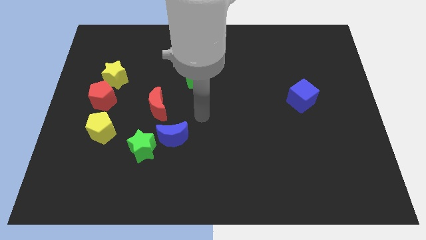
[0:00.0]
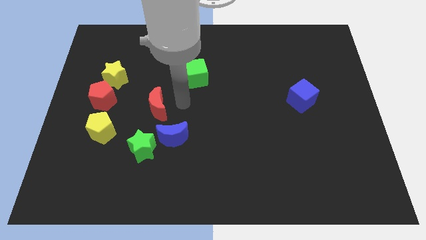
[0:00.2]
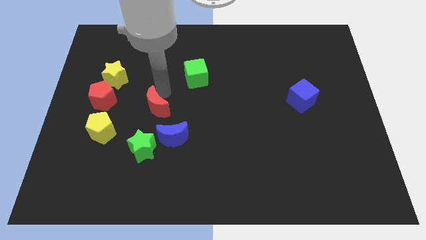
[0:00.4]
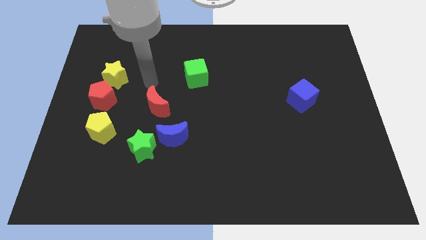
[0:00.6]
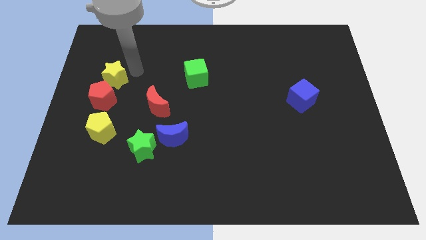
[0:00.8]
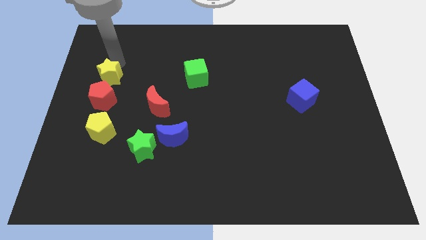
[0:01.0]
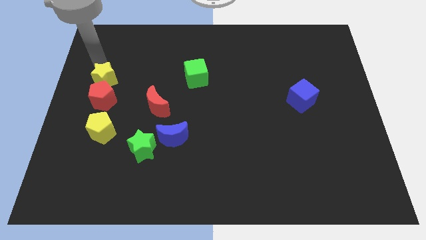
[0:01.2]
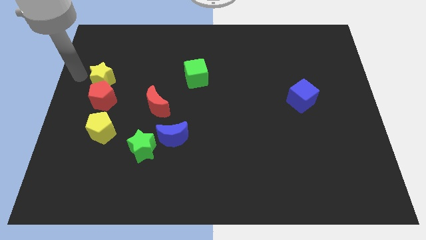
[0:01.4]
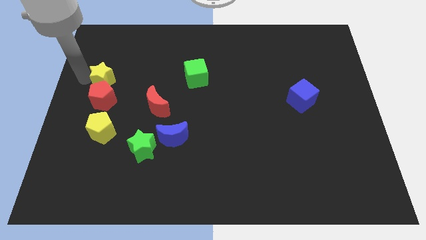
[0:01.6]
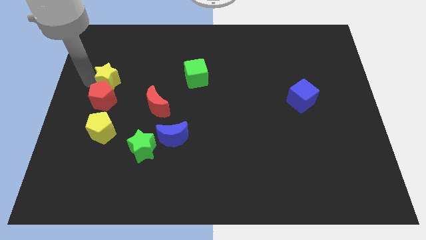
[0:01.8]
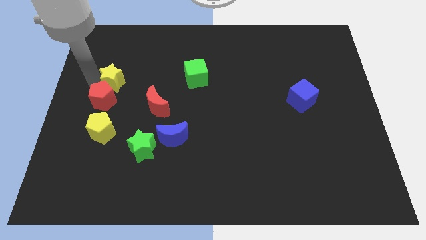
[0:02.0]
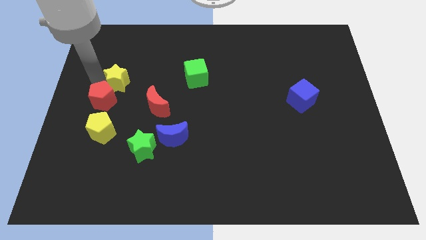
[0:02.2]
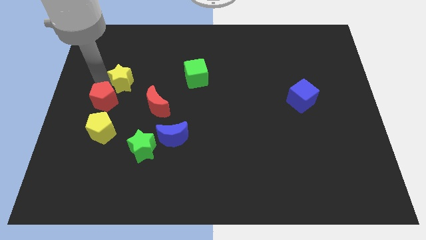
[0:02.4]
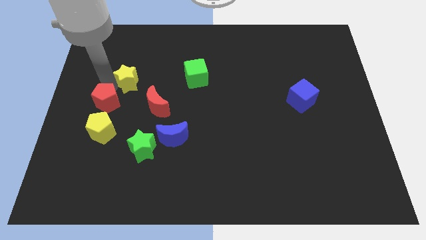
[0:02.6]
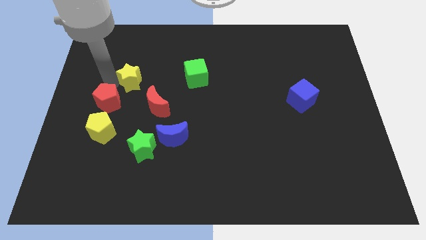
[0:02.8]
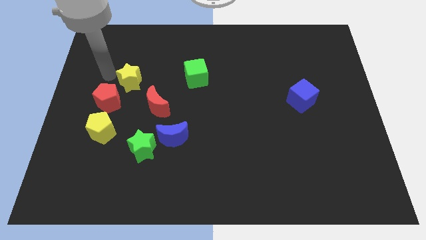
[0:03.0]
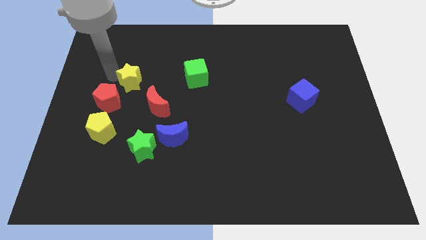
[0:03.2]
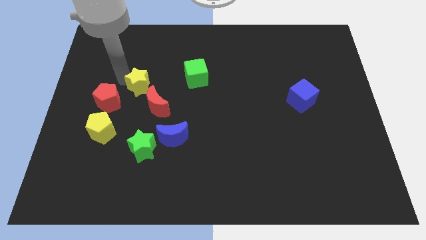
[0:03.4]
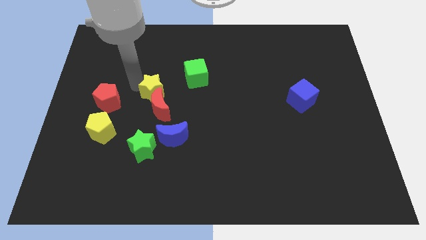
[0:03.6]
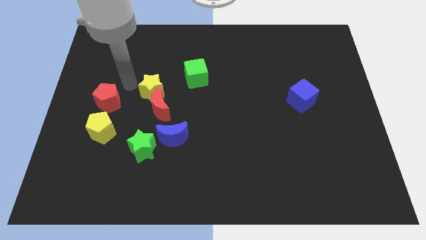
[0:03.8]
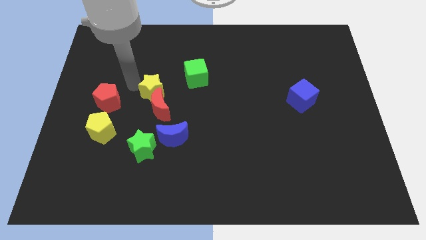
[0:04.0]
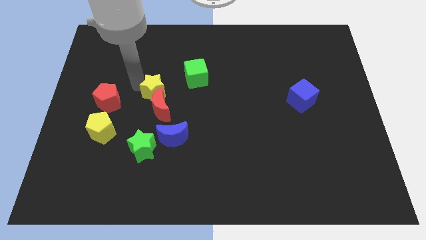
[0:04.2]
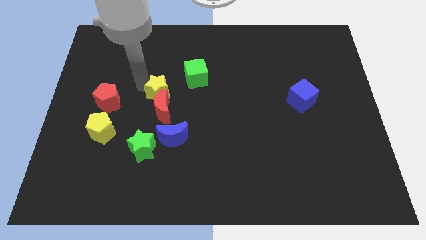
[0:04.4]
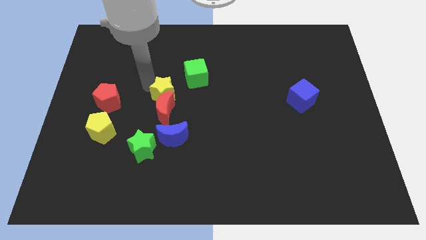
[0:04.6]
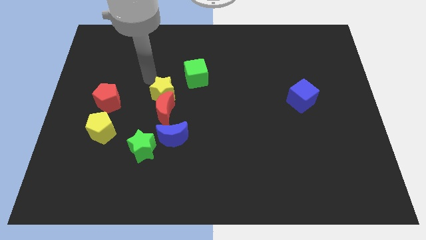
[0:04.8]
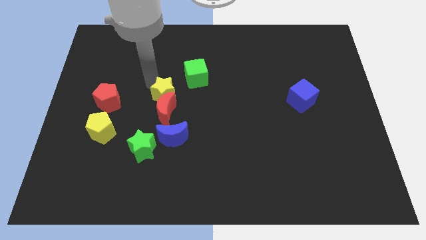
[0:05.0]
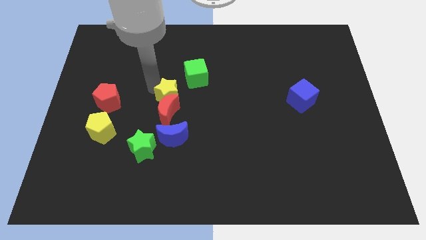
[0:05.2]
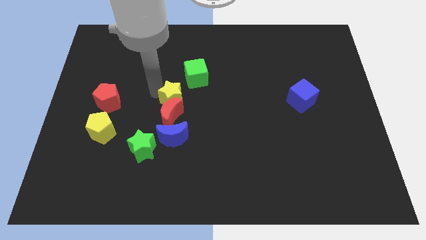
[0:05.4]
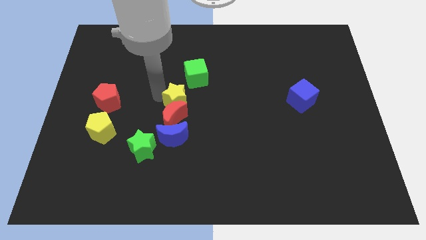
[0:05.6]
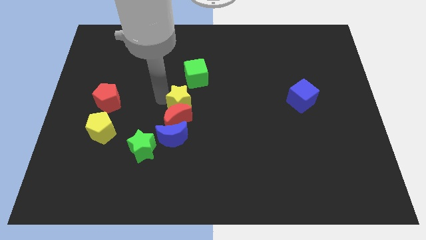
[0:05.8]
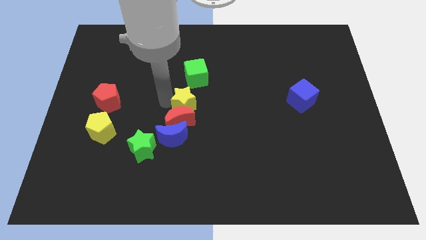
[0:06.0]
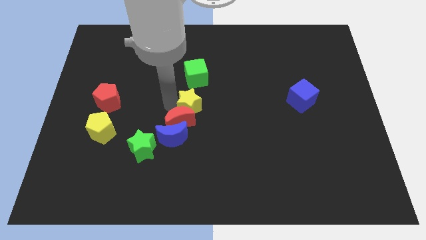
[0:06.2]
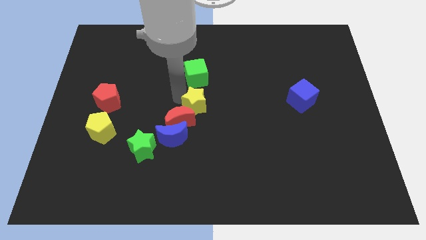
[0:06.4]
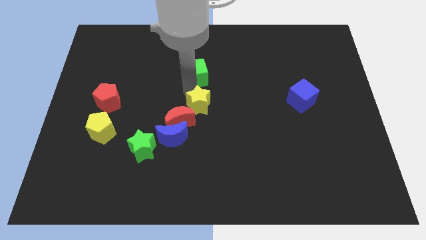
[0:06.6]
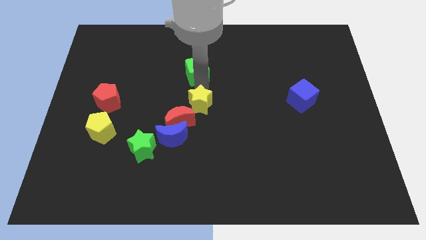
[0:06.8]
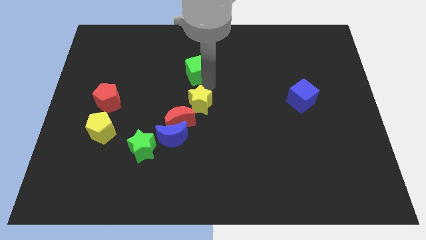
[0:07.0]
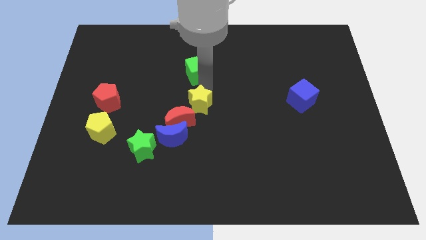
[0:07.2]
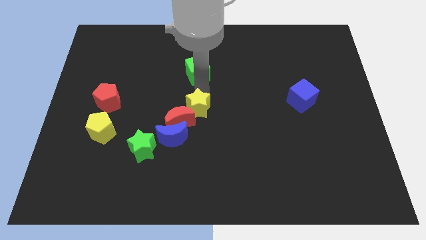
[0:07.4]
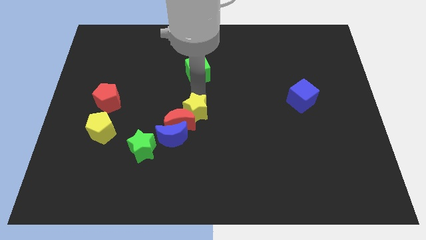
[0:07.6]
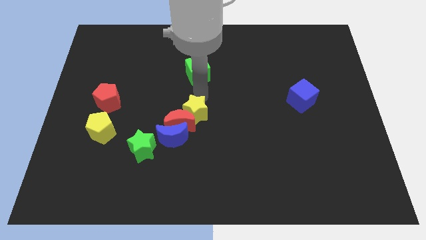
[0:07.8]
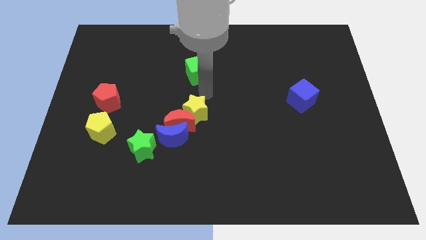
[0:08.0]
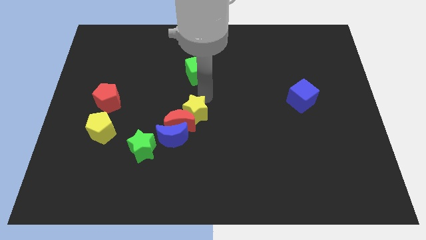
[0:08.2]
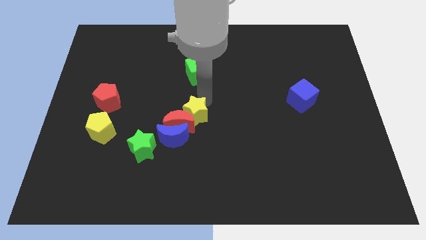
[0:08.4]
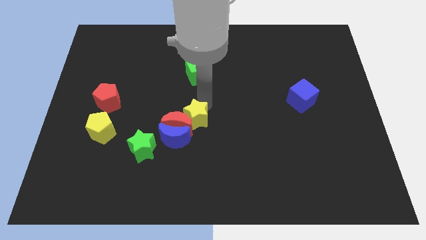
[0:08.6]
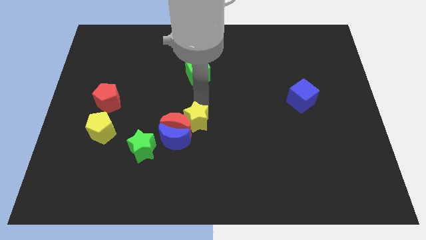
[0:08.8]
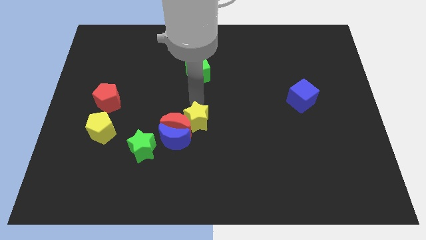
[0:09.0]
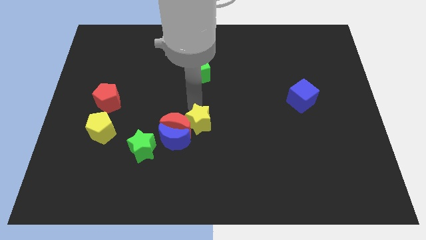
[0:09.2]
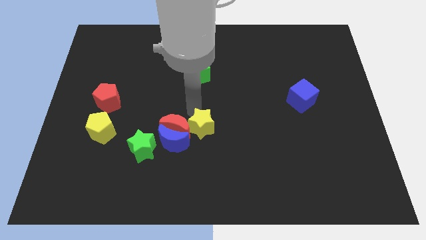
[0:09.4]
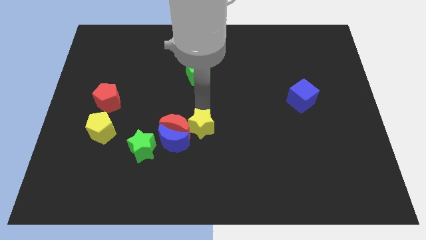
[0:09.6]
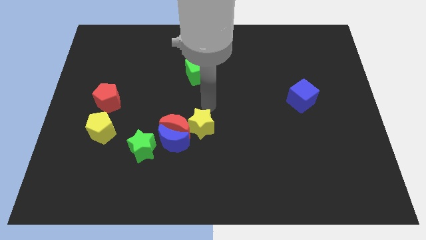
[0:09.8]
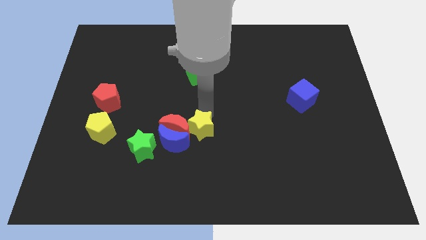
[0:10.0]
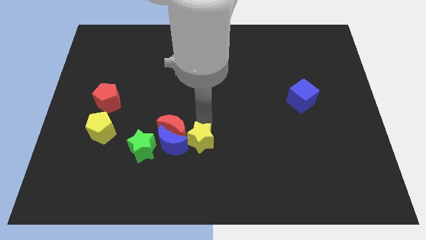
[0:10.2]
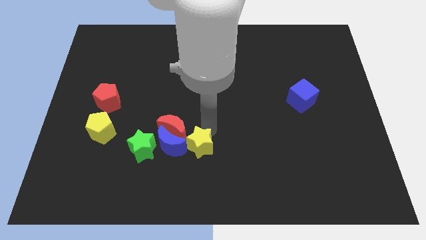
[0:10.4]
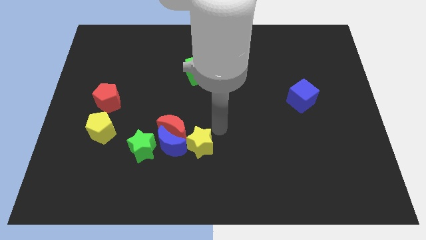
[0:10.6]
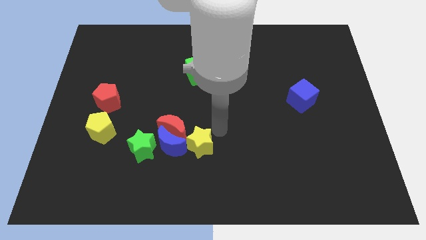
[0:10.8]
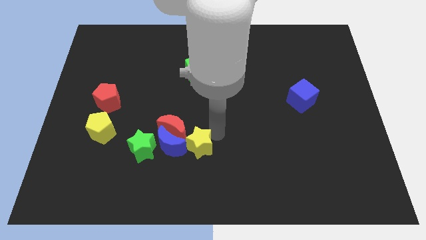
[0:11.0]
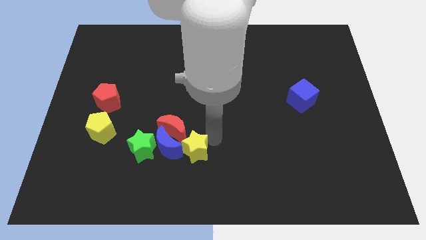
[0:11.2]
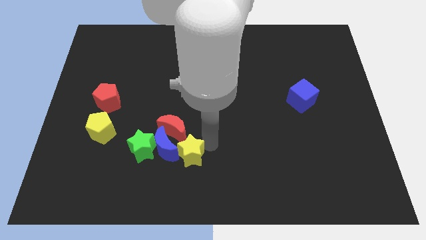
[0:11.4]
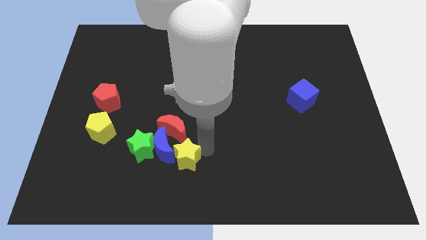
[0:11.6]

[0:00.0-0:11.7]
slide the yellow star to the bottom right side of the green star

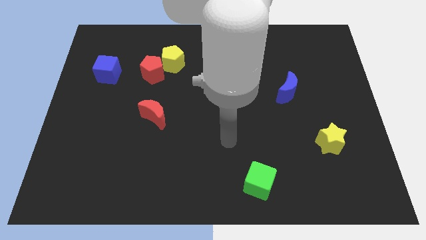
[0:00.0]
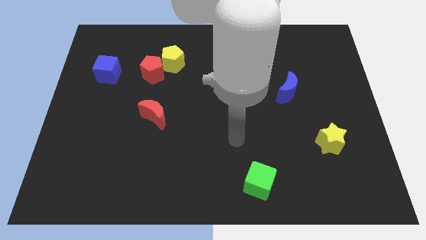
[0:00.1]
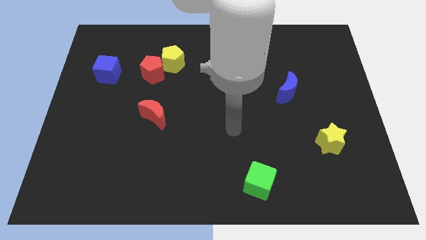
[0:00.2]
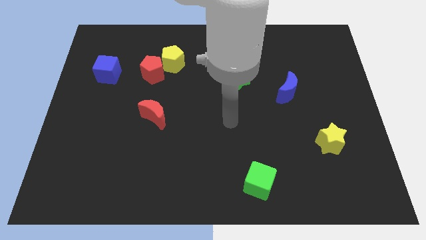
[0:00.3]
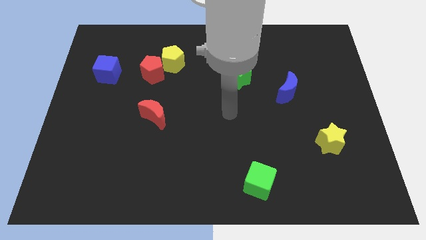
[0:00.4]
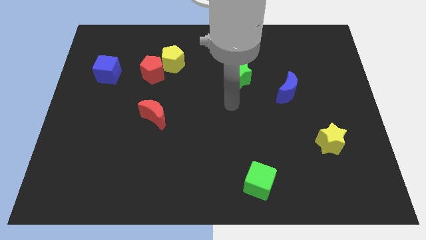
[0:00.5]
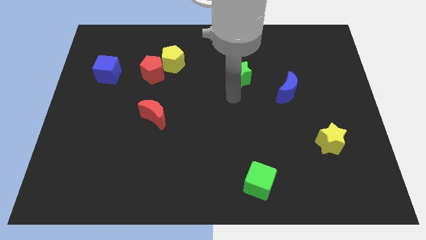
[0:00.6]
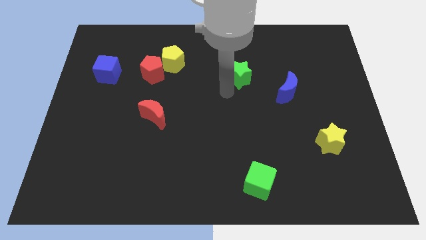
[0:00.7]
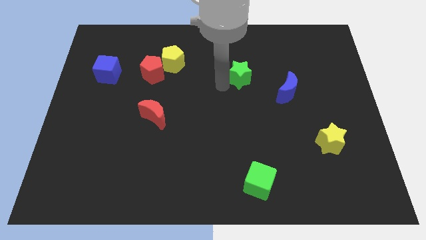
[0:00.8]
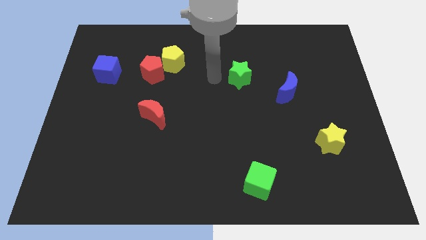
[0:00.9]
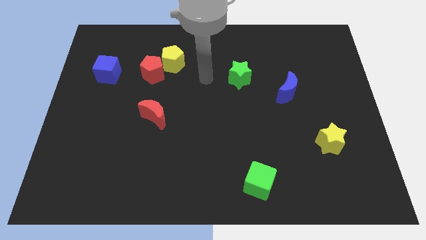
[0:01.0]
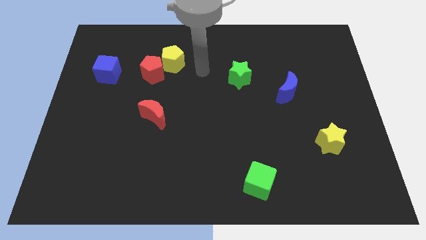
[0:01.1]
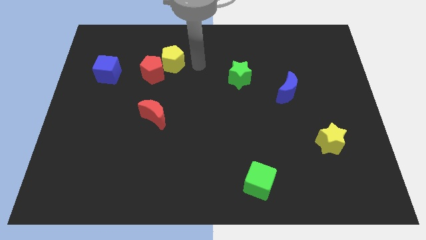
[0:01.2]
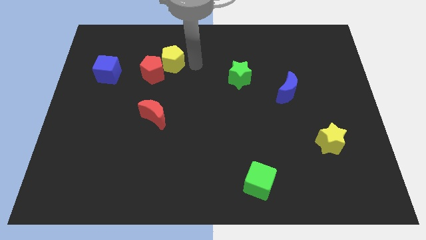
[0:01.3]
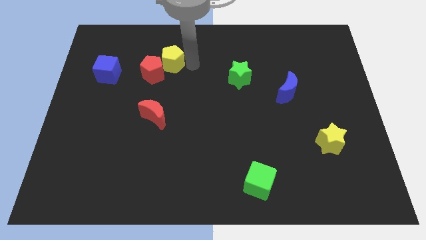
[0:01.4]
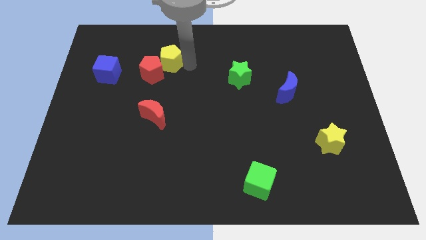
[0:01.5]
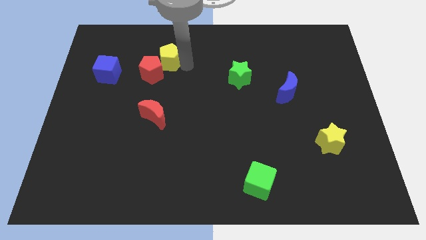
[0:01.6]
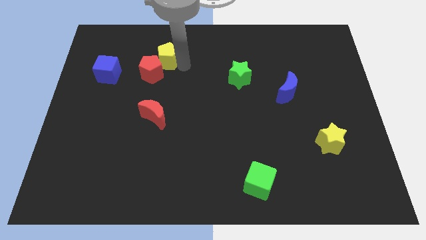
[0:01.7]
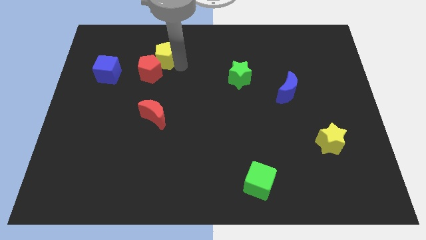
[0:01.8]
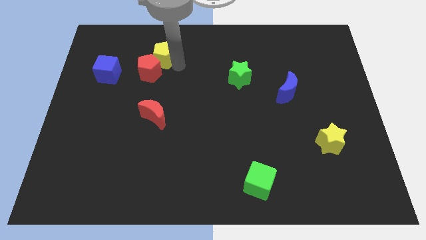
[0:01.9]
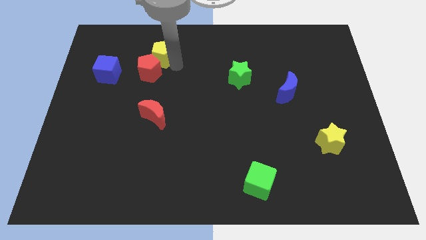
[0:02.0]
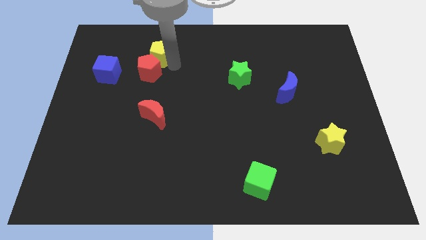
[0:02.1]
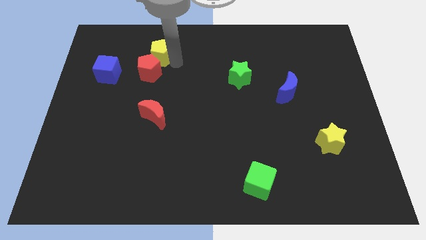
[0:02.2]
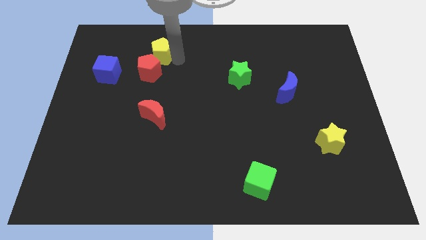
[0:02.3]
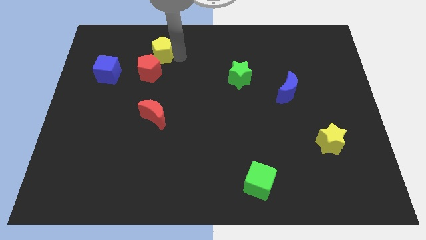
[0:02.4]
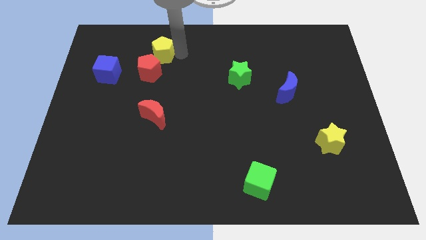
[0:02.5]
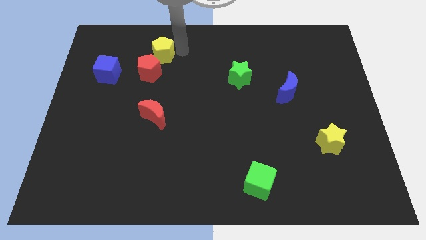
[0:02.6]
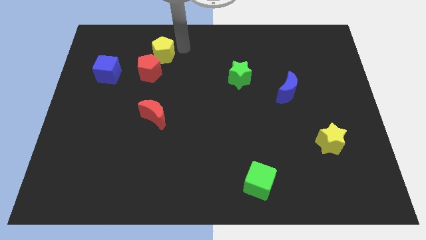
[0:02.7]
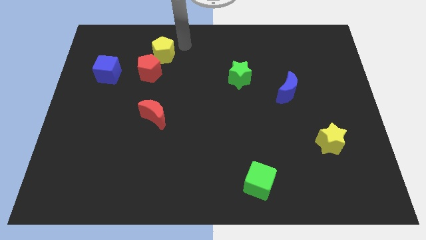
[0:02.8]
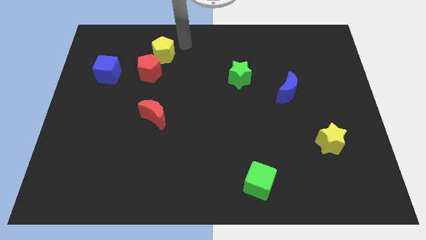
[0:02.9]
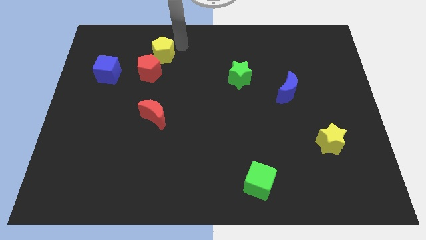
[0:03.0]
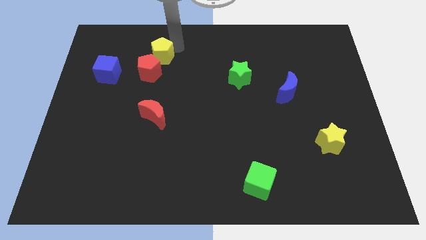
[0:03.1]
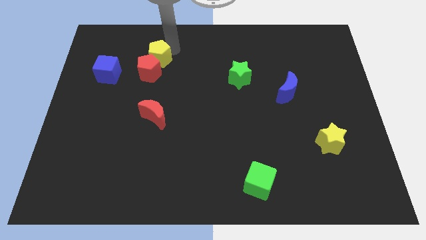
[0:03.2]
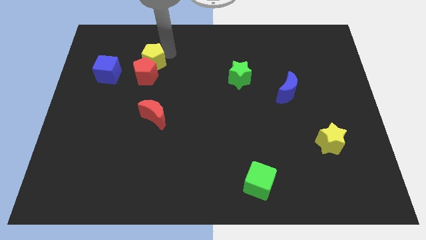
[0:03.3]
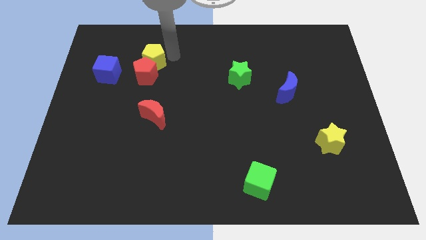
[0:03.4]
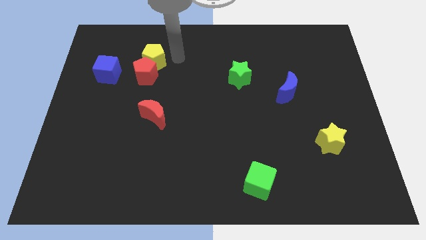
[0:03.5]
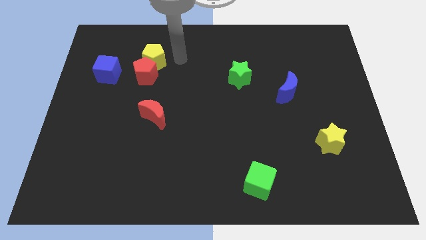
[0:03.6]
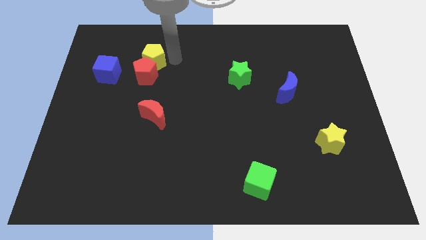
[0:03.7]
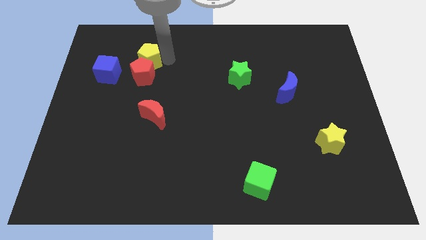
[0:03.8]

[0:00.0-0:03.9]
move the yellow pentagon to the top left side of the red pentagon
